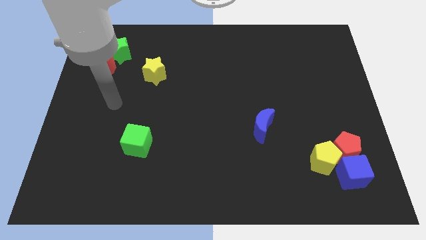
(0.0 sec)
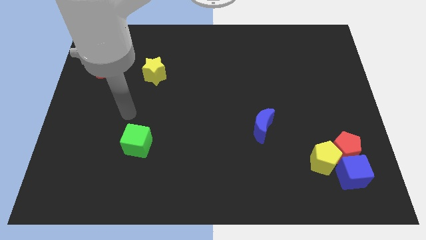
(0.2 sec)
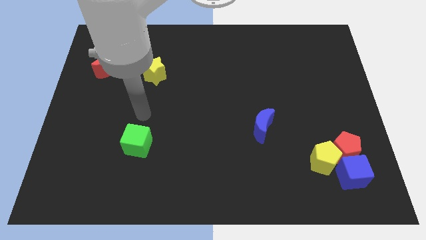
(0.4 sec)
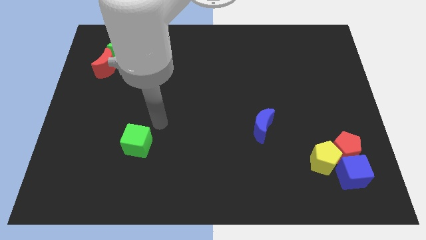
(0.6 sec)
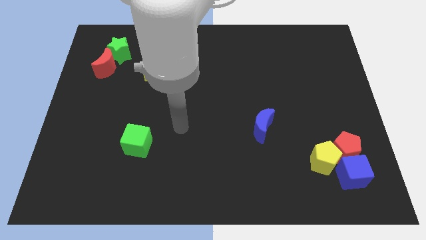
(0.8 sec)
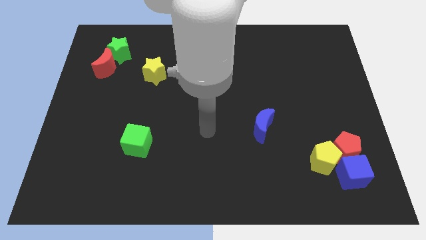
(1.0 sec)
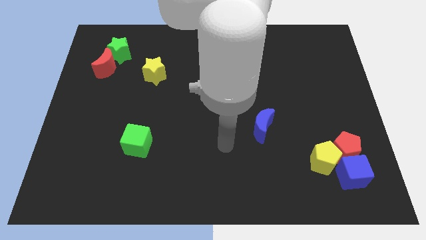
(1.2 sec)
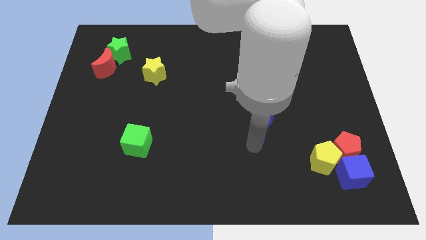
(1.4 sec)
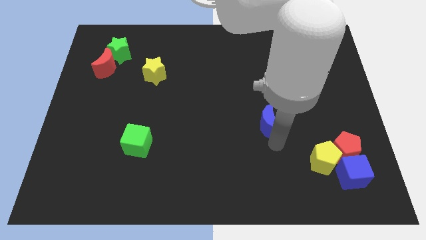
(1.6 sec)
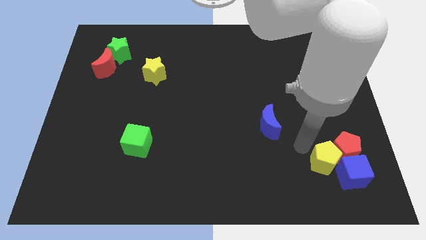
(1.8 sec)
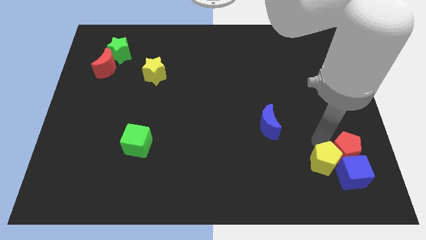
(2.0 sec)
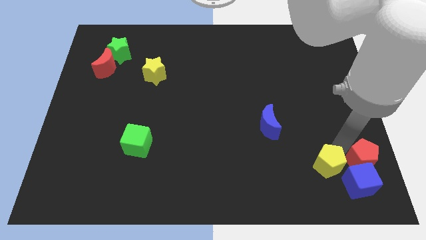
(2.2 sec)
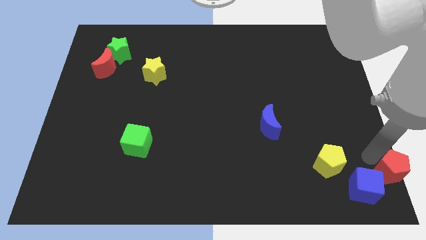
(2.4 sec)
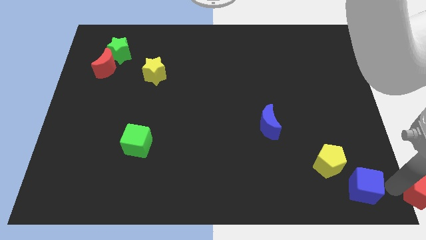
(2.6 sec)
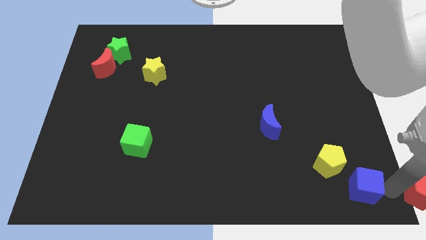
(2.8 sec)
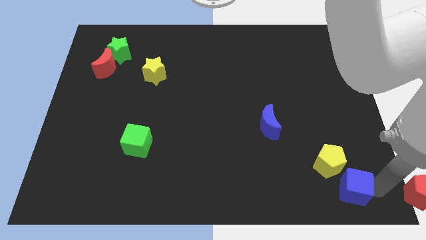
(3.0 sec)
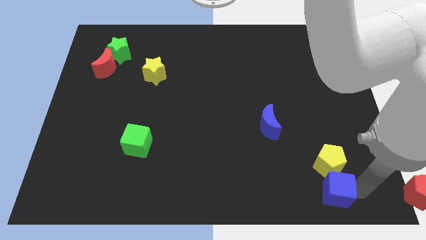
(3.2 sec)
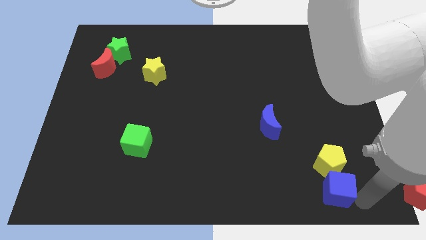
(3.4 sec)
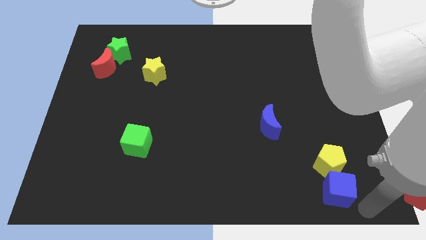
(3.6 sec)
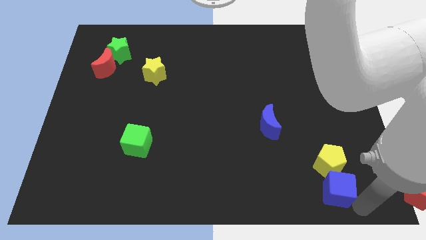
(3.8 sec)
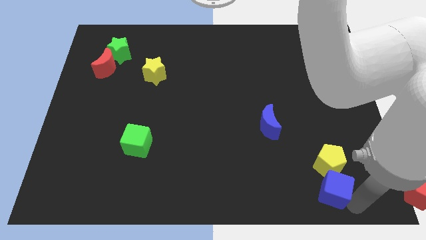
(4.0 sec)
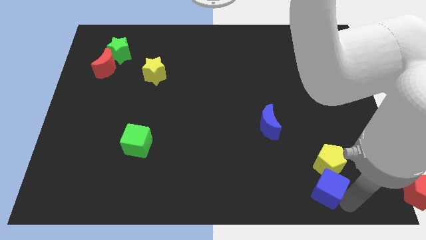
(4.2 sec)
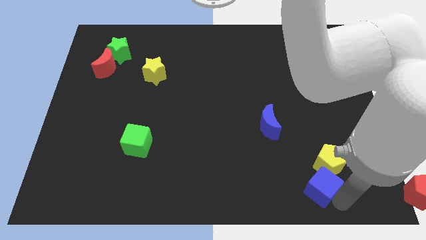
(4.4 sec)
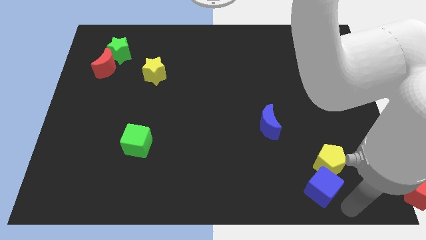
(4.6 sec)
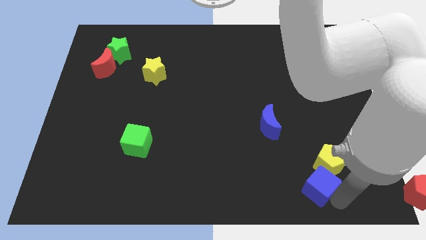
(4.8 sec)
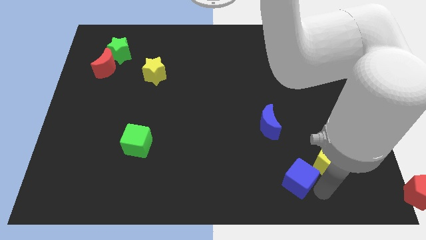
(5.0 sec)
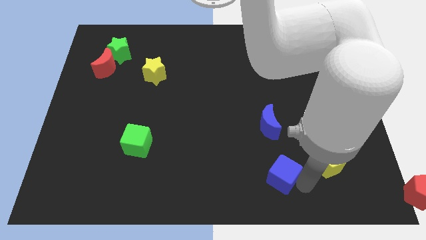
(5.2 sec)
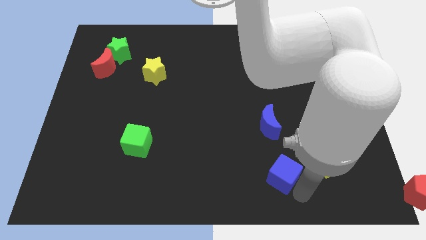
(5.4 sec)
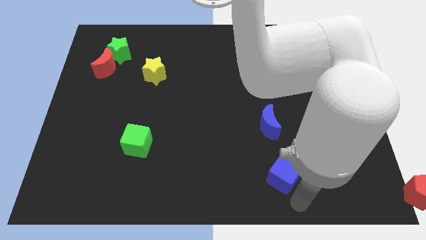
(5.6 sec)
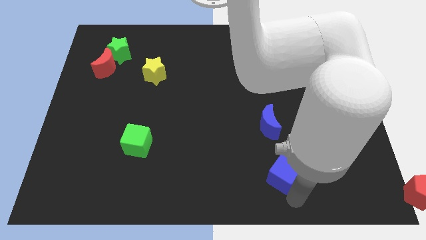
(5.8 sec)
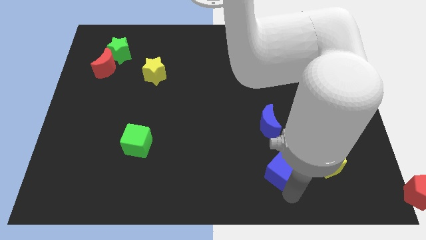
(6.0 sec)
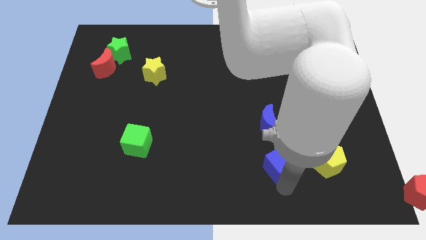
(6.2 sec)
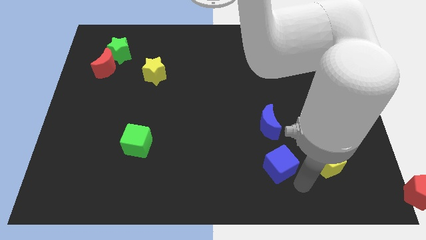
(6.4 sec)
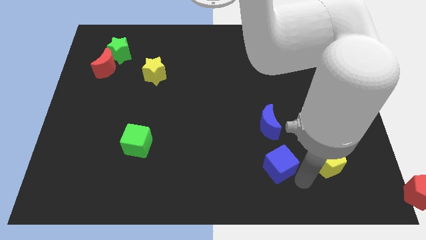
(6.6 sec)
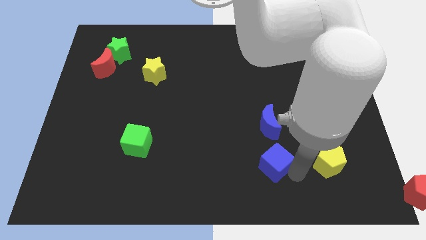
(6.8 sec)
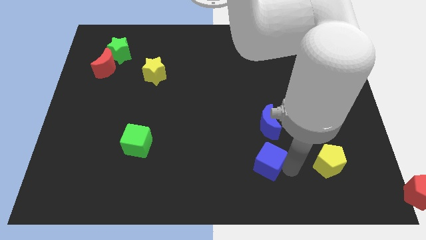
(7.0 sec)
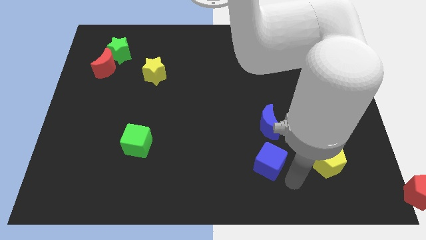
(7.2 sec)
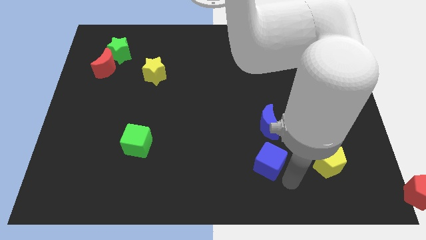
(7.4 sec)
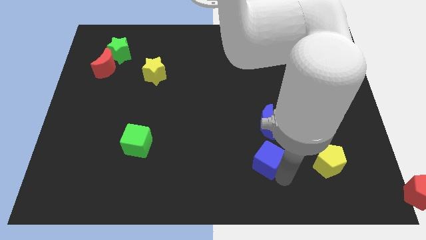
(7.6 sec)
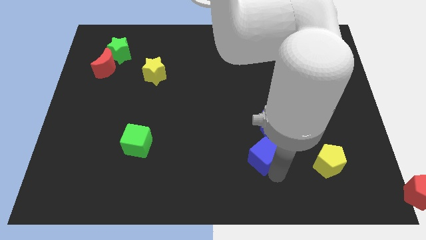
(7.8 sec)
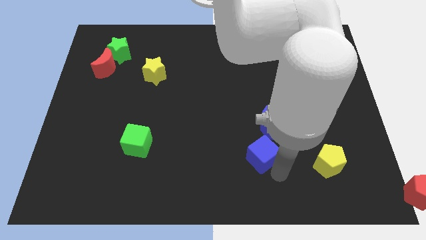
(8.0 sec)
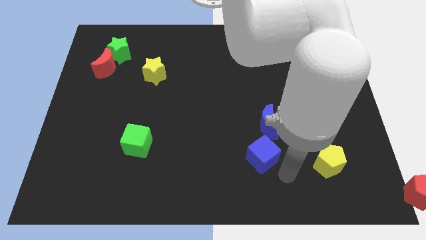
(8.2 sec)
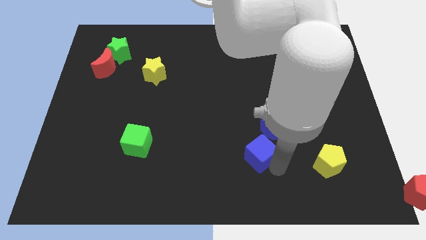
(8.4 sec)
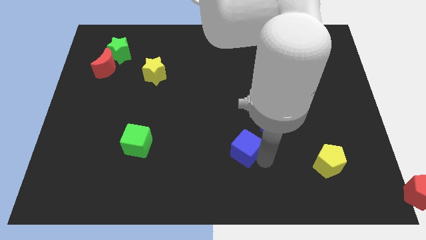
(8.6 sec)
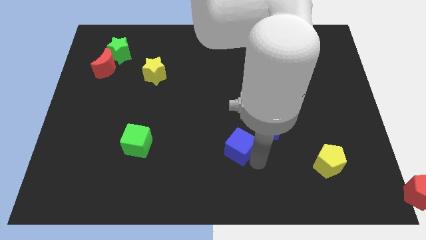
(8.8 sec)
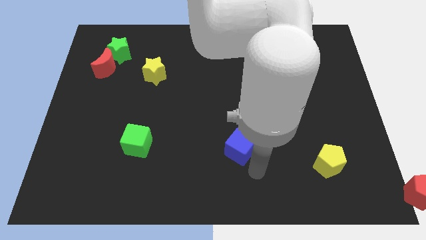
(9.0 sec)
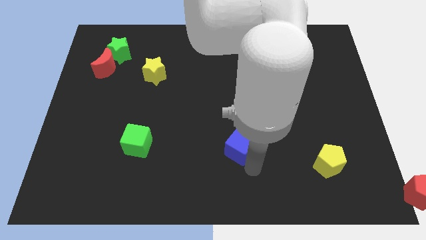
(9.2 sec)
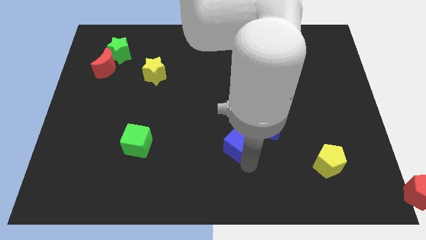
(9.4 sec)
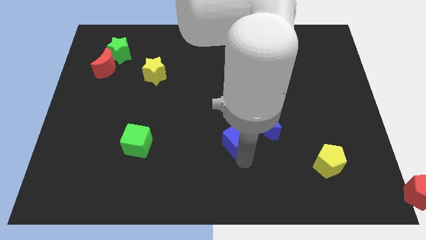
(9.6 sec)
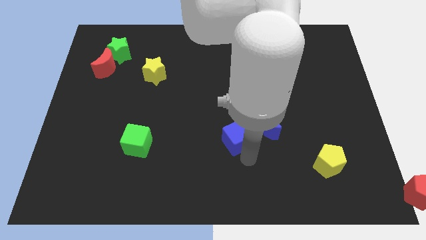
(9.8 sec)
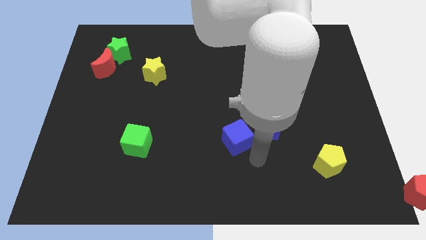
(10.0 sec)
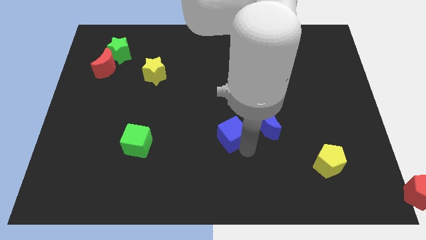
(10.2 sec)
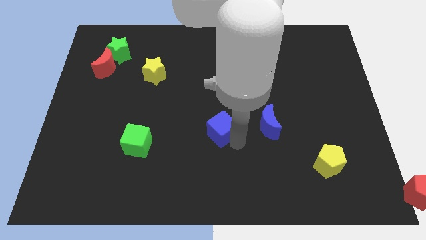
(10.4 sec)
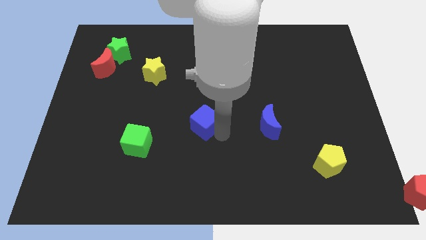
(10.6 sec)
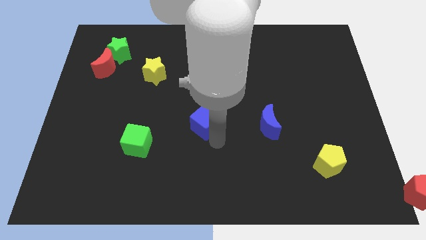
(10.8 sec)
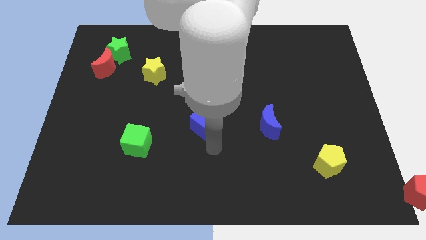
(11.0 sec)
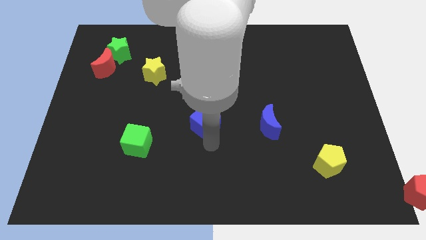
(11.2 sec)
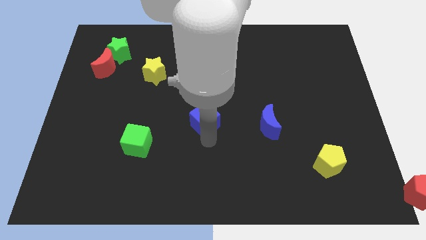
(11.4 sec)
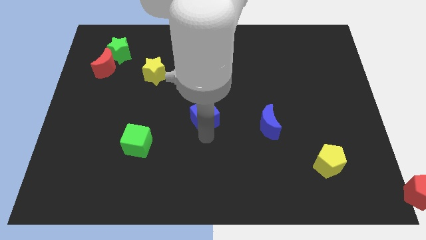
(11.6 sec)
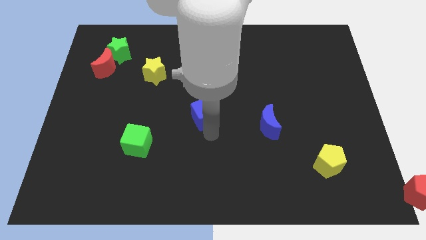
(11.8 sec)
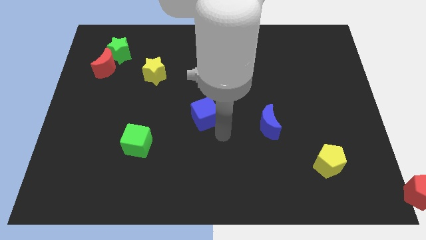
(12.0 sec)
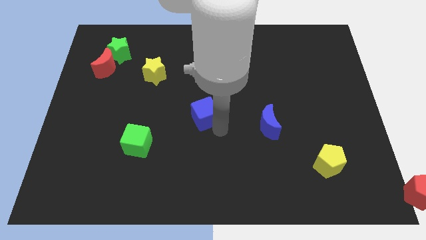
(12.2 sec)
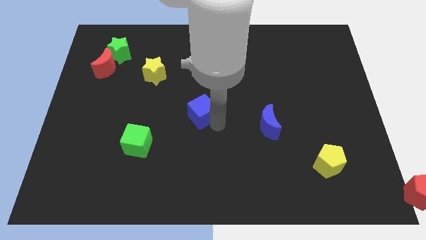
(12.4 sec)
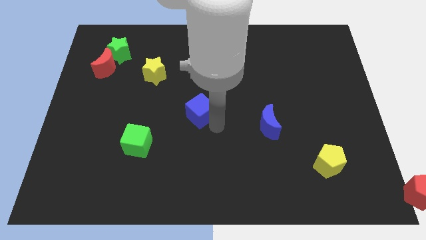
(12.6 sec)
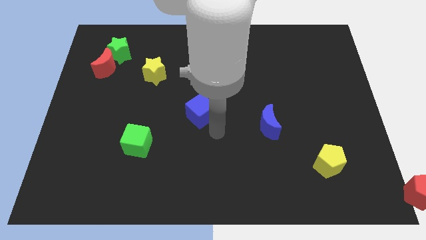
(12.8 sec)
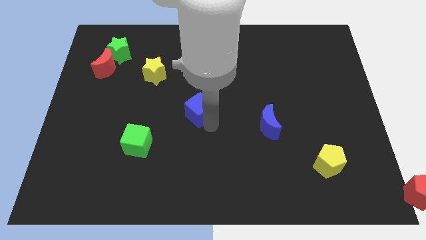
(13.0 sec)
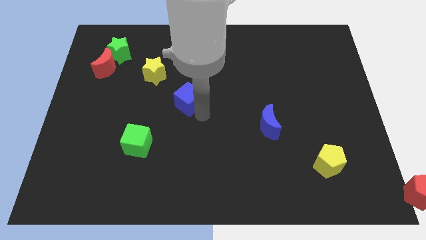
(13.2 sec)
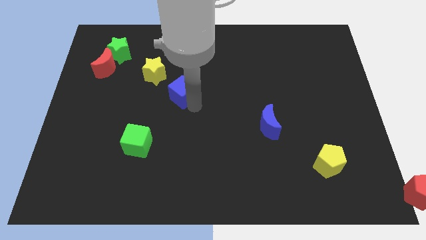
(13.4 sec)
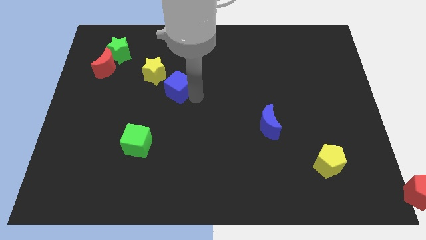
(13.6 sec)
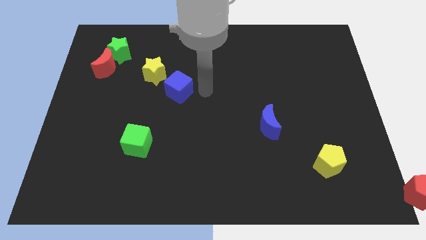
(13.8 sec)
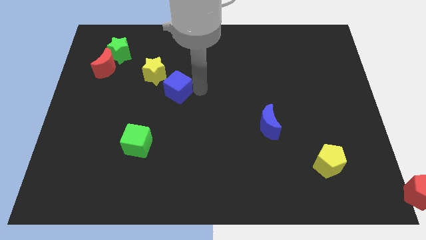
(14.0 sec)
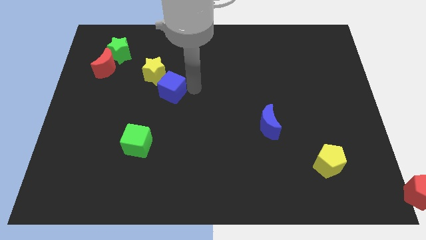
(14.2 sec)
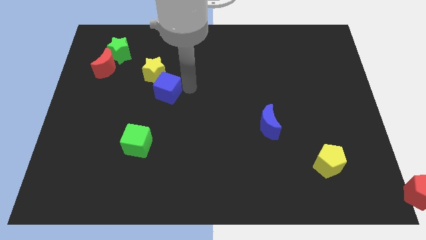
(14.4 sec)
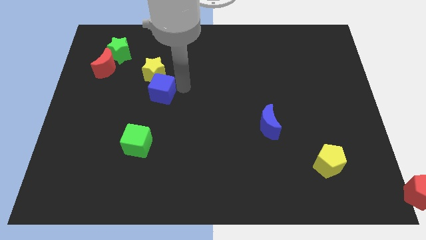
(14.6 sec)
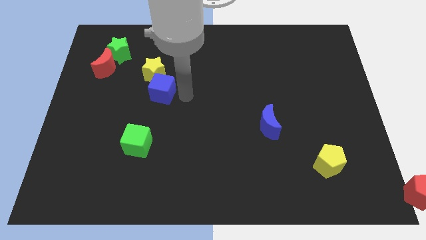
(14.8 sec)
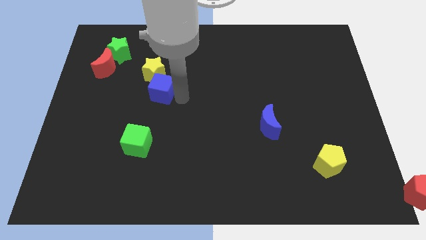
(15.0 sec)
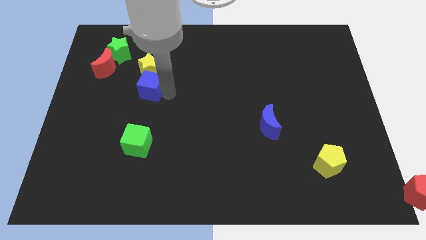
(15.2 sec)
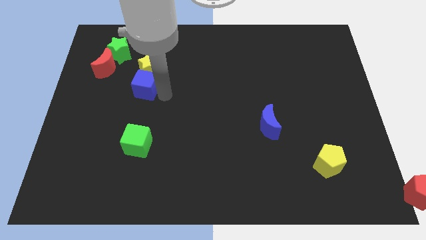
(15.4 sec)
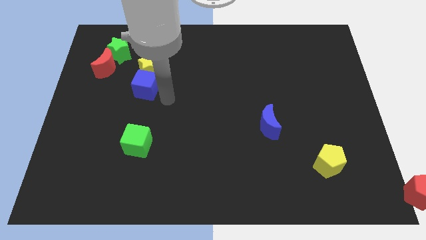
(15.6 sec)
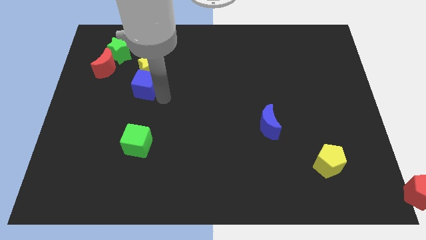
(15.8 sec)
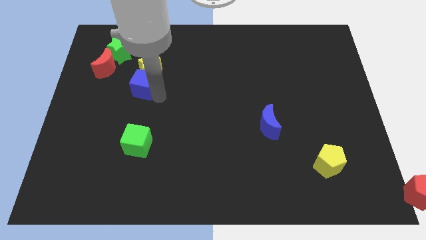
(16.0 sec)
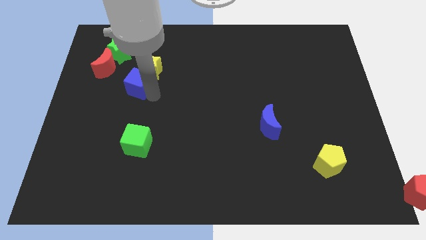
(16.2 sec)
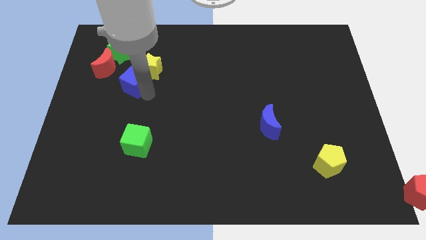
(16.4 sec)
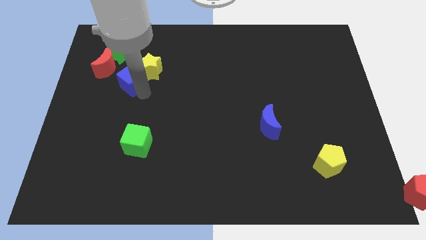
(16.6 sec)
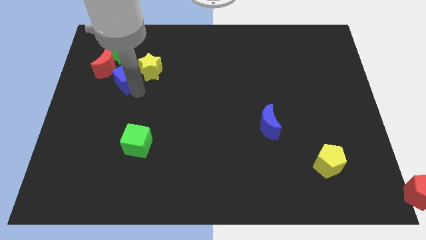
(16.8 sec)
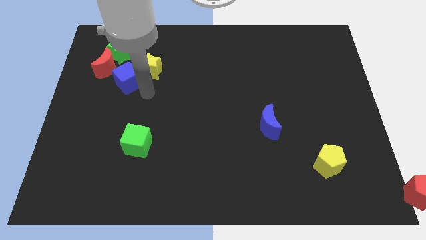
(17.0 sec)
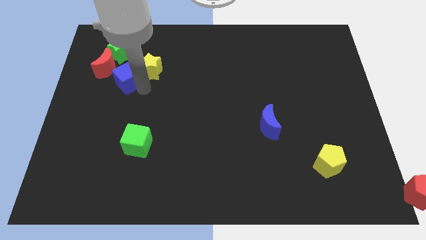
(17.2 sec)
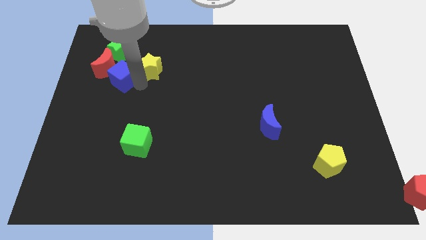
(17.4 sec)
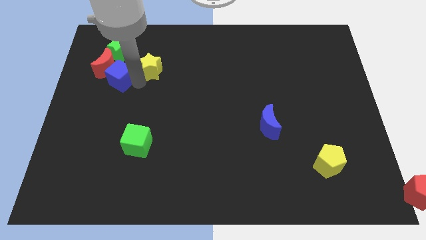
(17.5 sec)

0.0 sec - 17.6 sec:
push the blue cube towards the red moon
